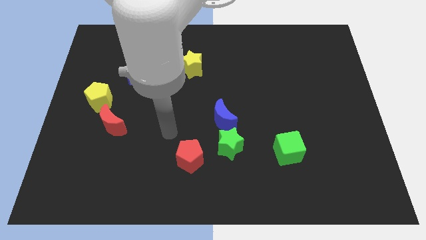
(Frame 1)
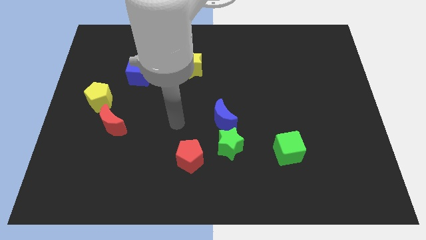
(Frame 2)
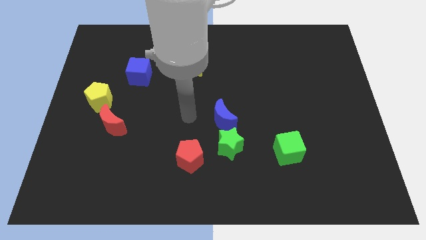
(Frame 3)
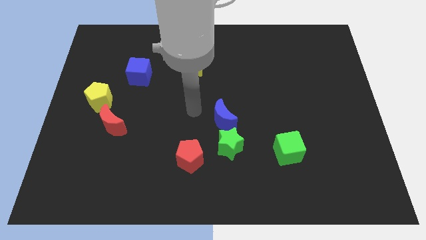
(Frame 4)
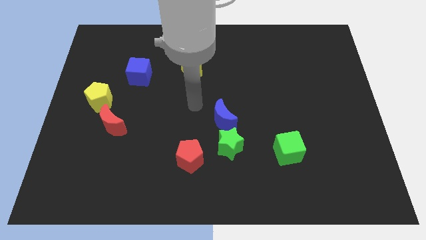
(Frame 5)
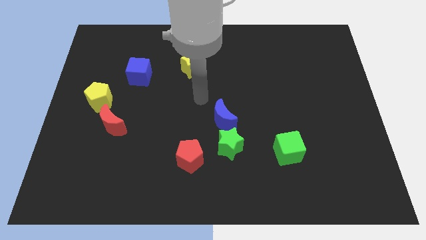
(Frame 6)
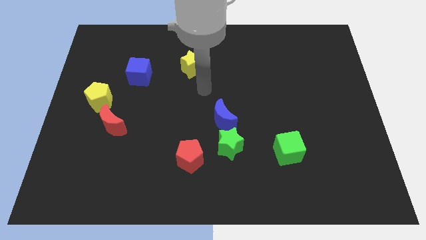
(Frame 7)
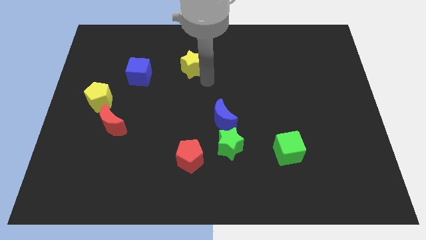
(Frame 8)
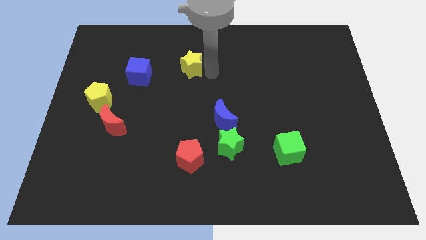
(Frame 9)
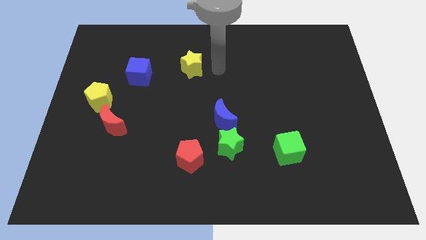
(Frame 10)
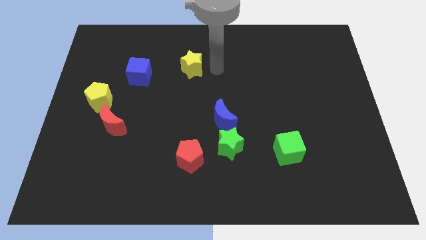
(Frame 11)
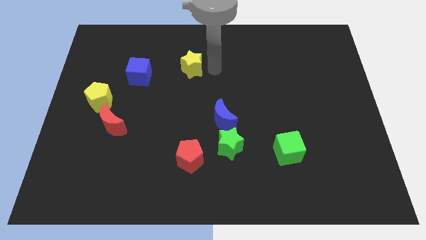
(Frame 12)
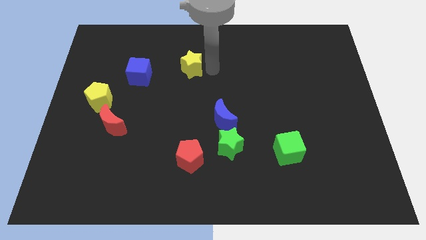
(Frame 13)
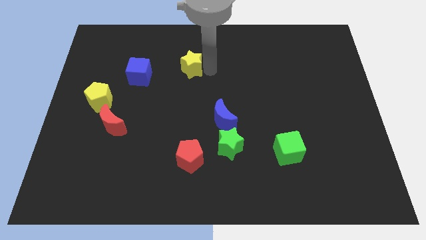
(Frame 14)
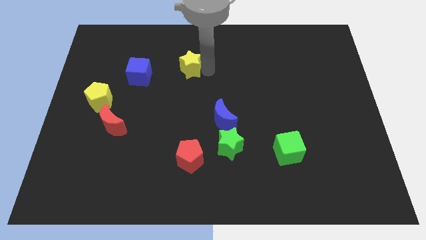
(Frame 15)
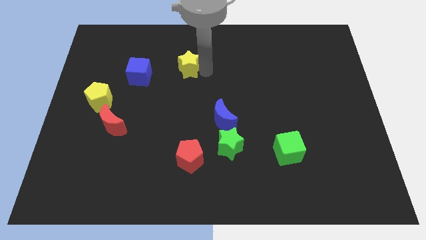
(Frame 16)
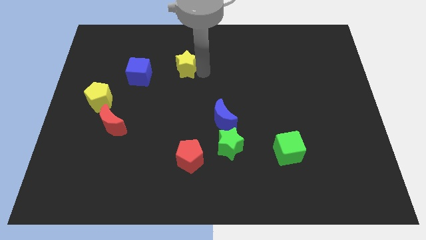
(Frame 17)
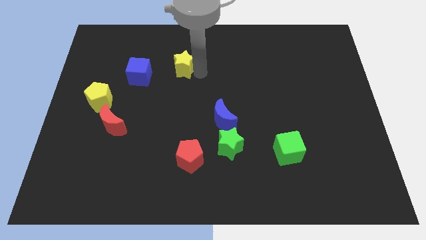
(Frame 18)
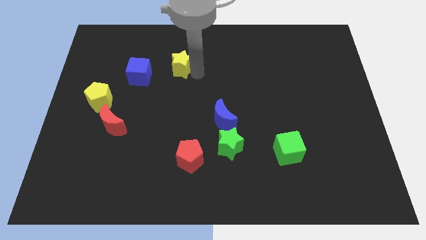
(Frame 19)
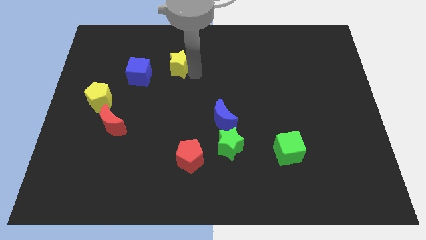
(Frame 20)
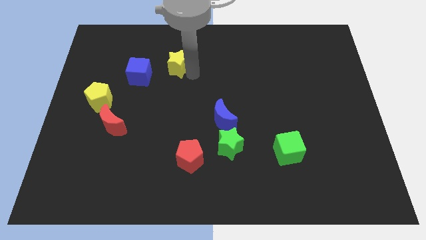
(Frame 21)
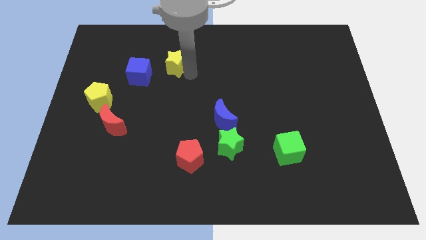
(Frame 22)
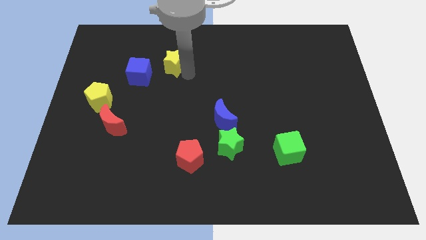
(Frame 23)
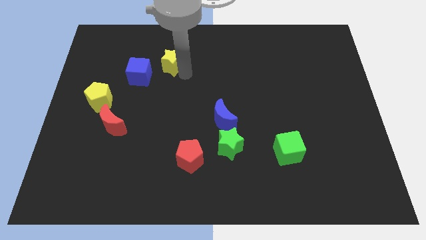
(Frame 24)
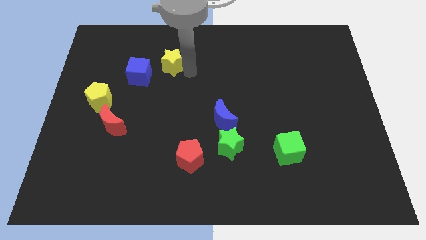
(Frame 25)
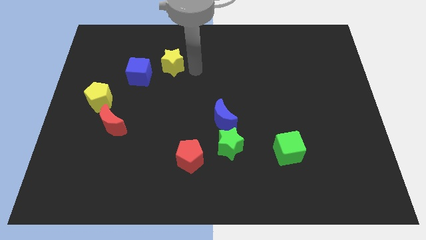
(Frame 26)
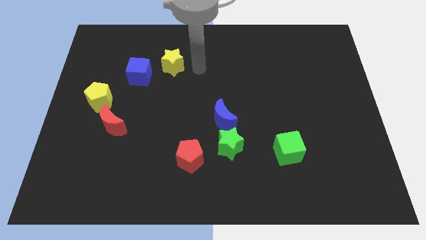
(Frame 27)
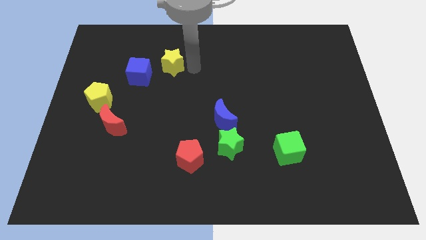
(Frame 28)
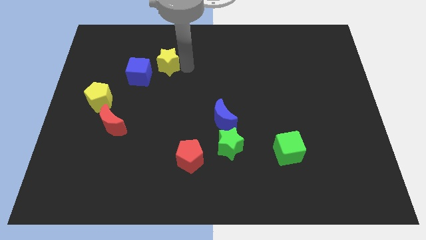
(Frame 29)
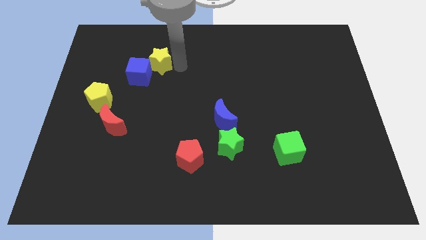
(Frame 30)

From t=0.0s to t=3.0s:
push the yellow star a little left

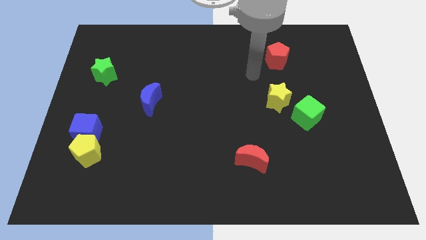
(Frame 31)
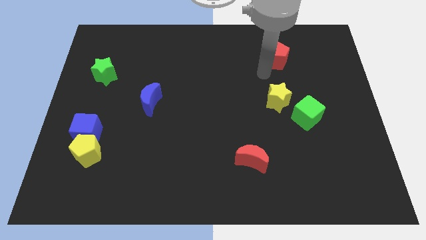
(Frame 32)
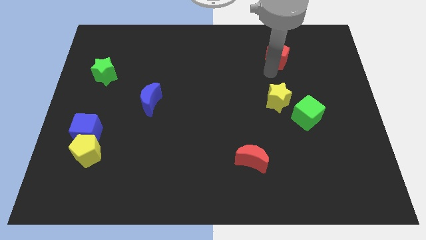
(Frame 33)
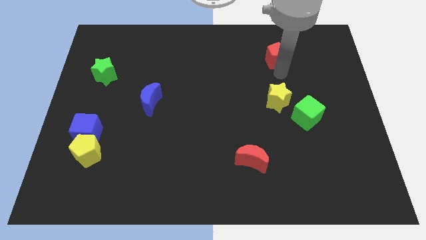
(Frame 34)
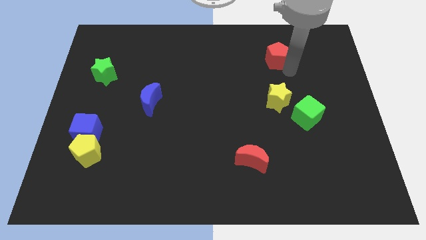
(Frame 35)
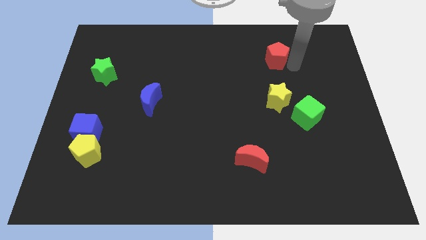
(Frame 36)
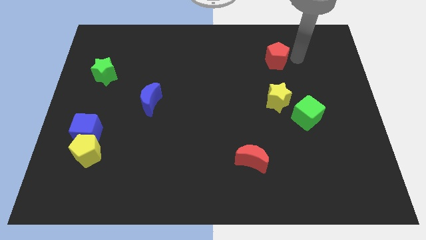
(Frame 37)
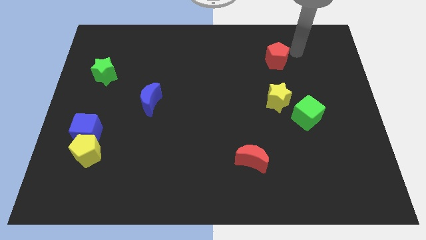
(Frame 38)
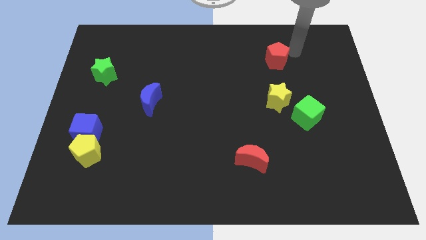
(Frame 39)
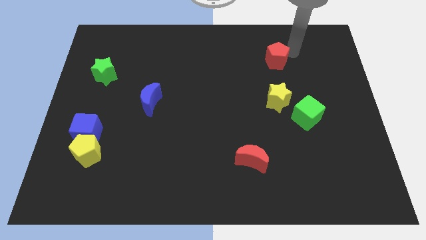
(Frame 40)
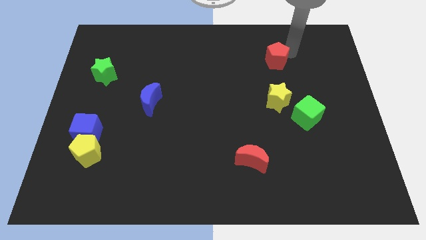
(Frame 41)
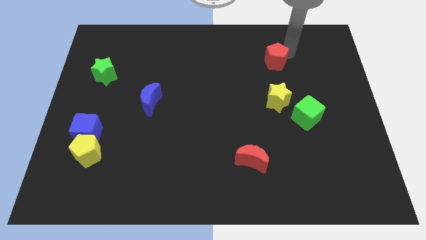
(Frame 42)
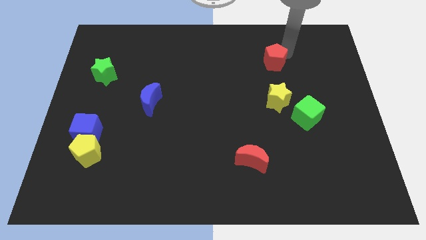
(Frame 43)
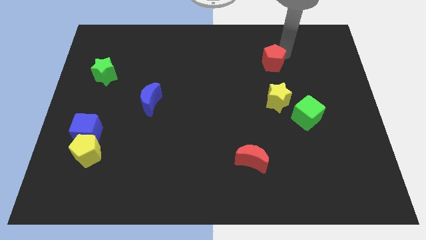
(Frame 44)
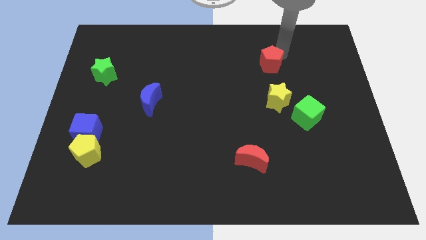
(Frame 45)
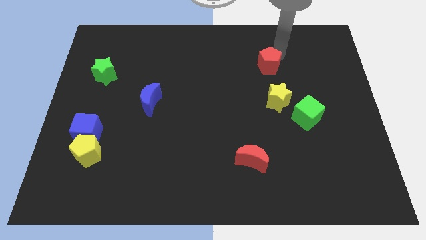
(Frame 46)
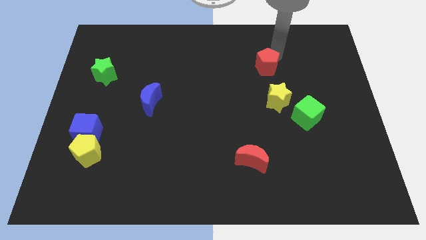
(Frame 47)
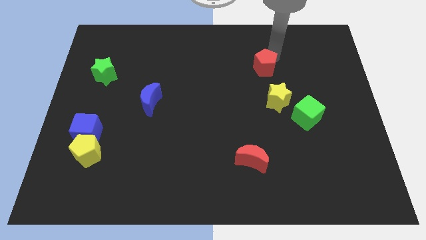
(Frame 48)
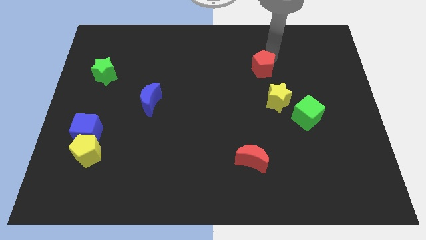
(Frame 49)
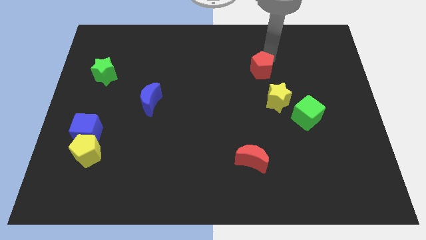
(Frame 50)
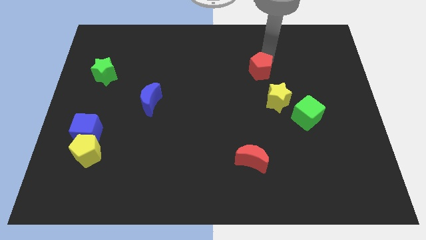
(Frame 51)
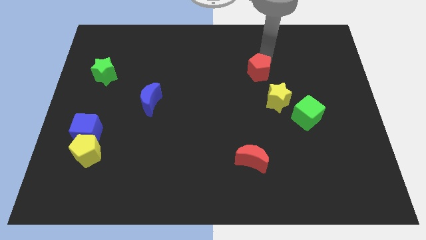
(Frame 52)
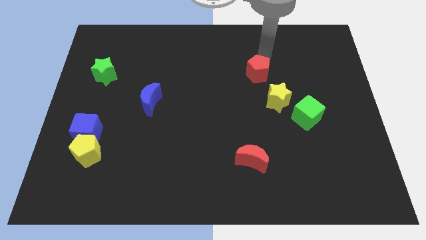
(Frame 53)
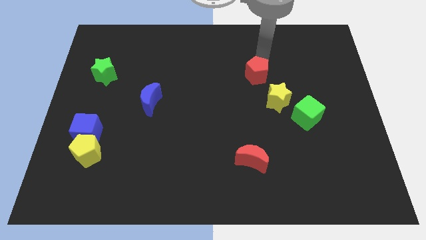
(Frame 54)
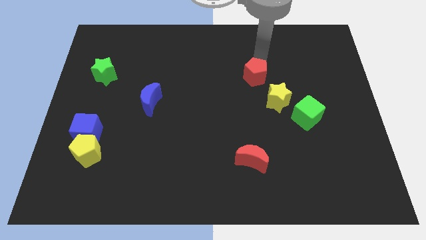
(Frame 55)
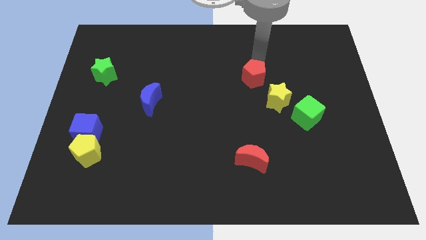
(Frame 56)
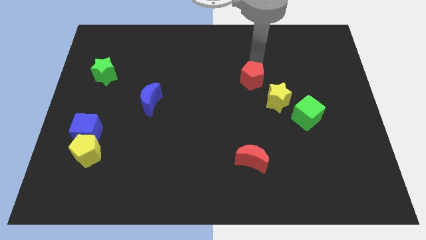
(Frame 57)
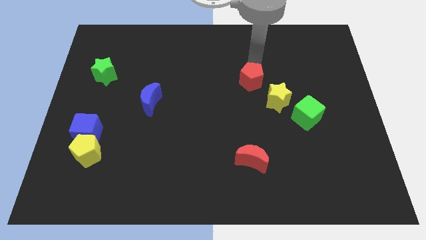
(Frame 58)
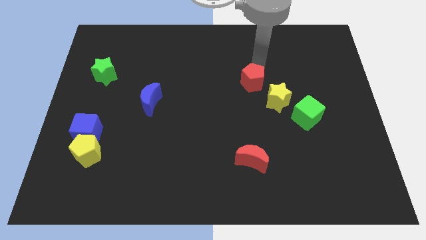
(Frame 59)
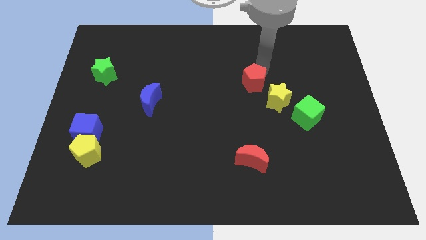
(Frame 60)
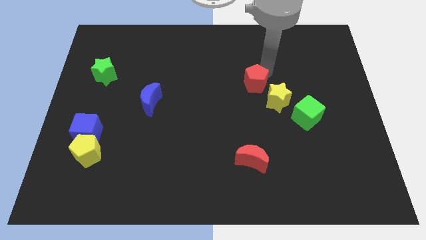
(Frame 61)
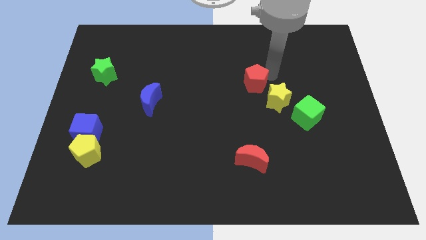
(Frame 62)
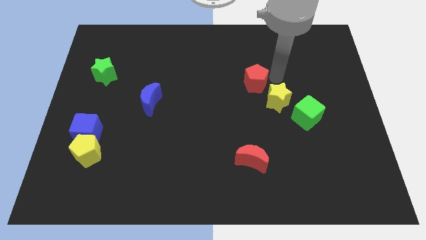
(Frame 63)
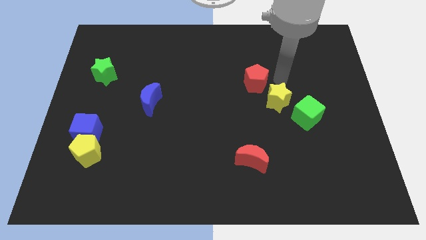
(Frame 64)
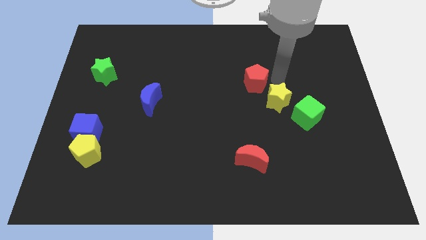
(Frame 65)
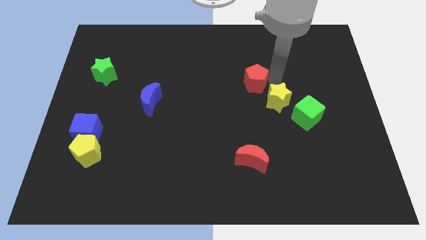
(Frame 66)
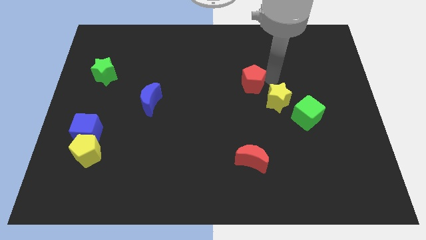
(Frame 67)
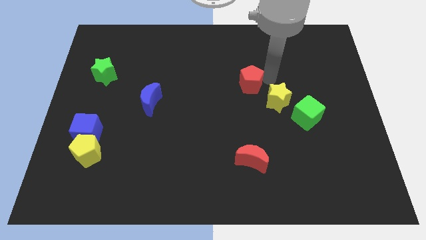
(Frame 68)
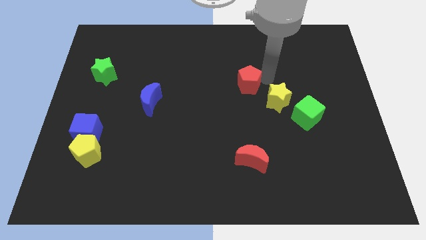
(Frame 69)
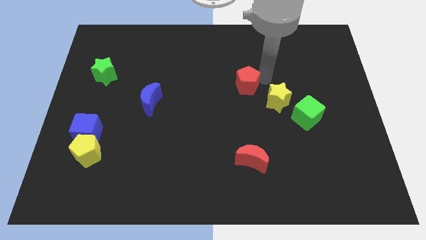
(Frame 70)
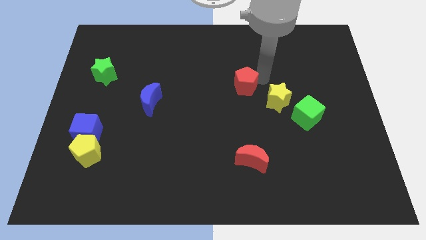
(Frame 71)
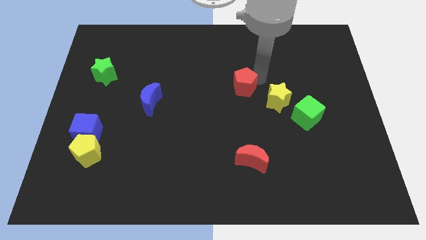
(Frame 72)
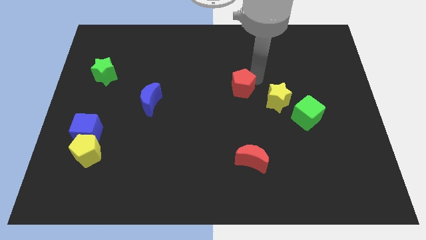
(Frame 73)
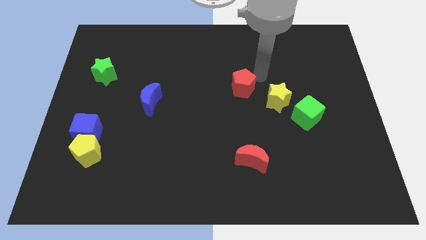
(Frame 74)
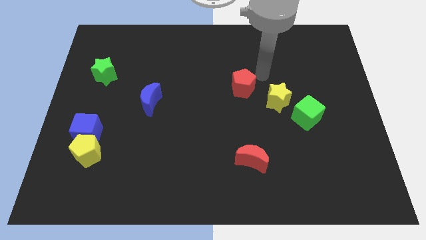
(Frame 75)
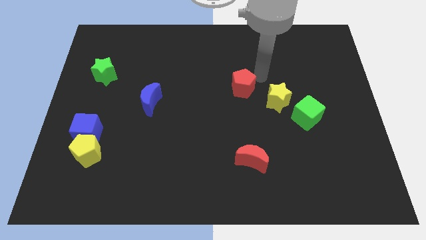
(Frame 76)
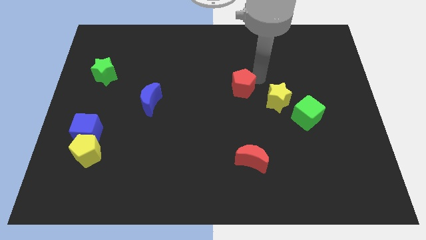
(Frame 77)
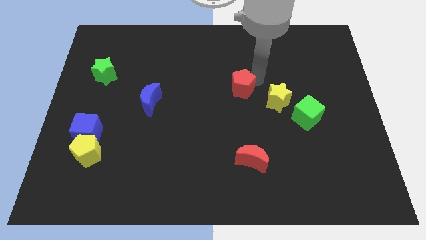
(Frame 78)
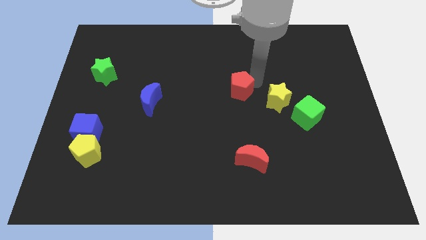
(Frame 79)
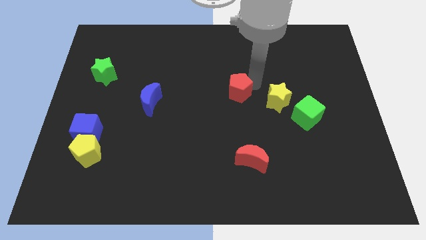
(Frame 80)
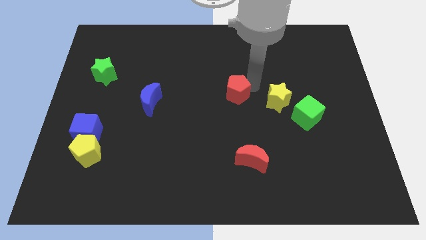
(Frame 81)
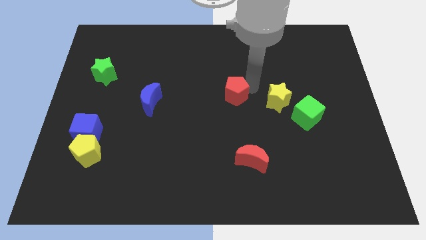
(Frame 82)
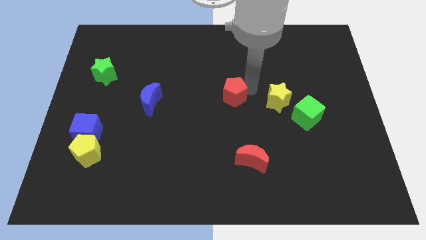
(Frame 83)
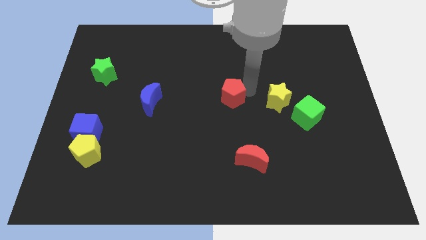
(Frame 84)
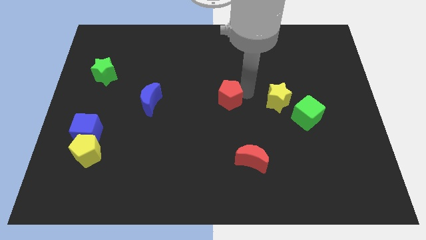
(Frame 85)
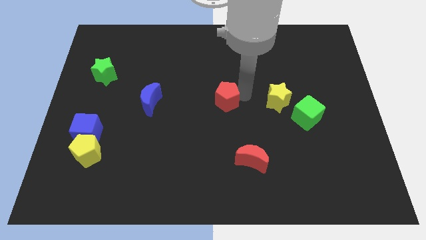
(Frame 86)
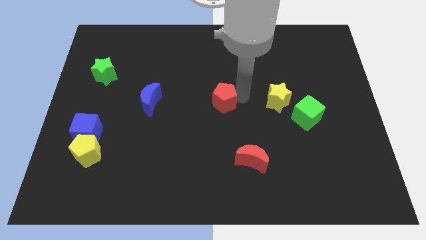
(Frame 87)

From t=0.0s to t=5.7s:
push the red pentagon downwards and then to the left
